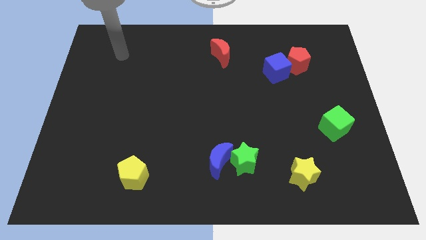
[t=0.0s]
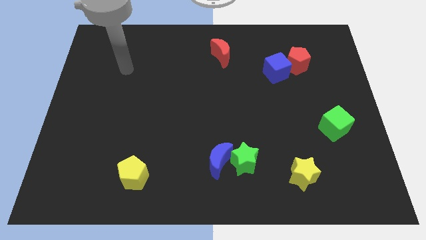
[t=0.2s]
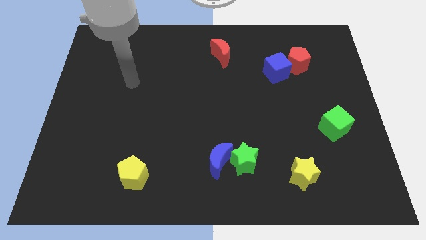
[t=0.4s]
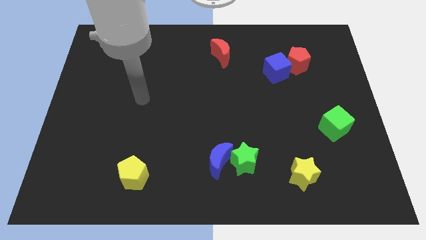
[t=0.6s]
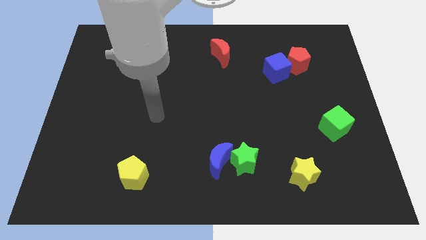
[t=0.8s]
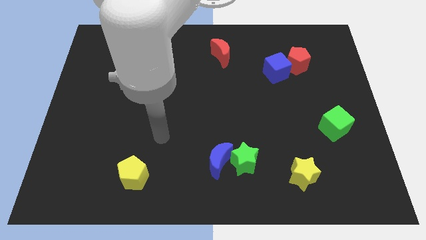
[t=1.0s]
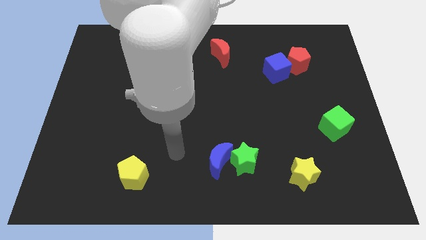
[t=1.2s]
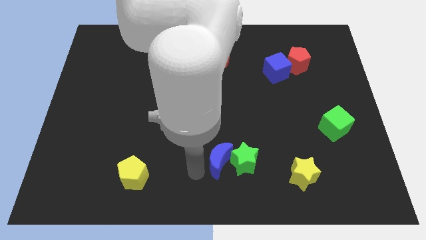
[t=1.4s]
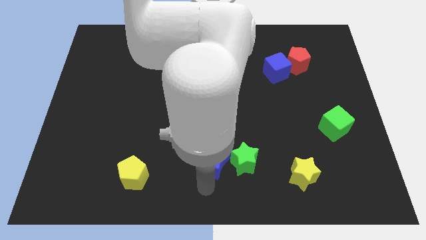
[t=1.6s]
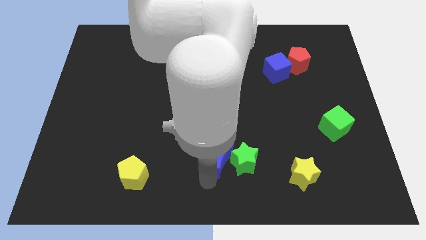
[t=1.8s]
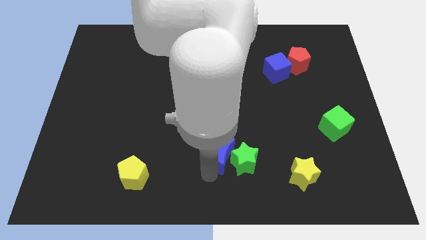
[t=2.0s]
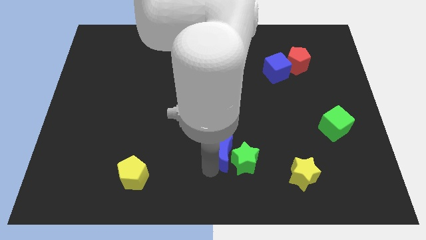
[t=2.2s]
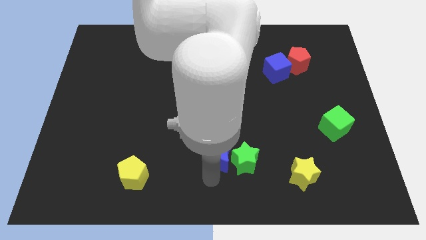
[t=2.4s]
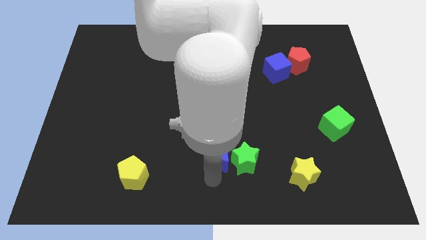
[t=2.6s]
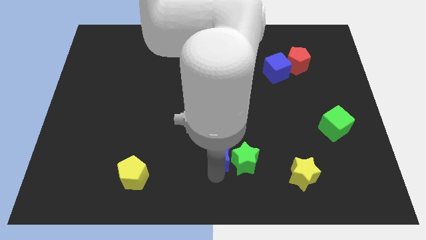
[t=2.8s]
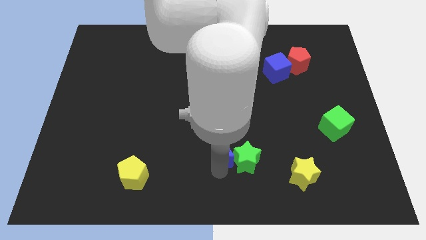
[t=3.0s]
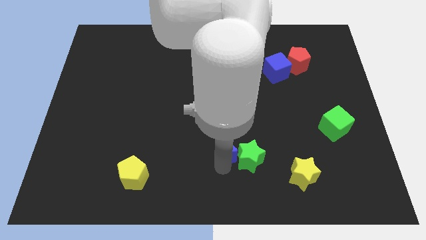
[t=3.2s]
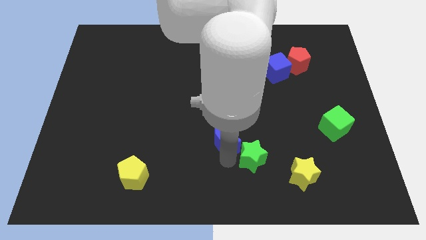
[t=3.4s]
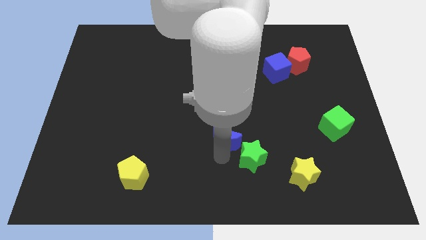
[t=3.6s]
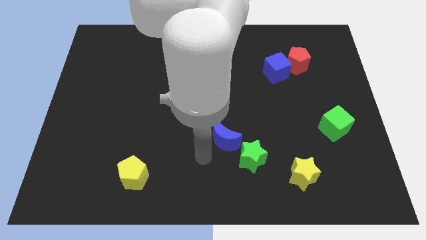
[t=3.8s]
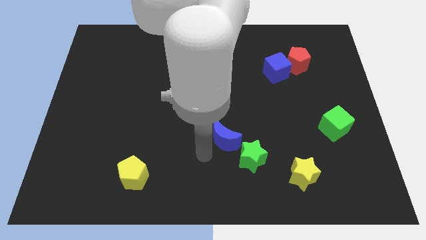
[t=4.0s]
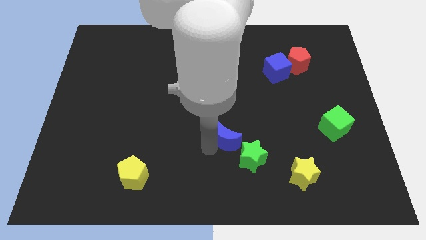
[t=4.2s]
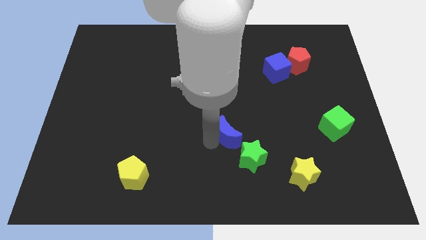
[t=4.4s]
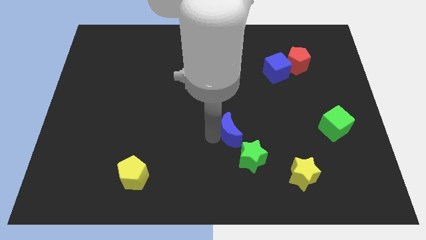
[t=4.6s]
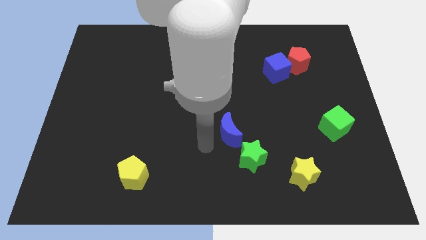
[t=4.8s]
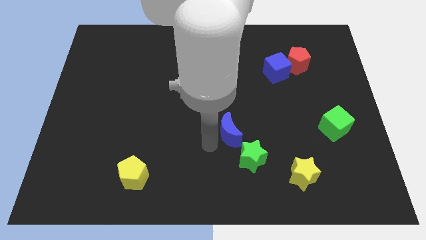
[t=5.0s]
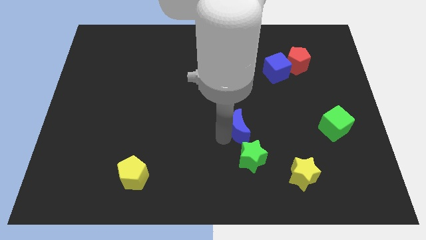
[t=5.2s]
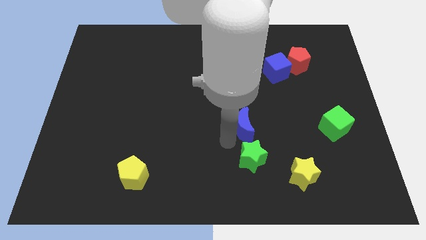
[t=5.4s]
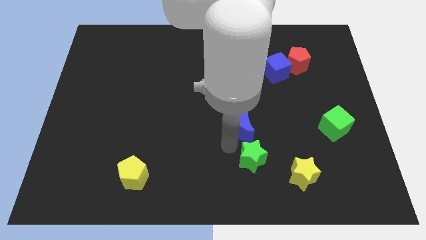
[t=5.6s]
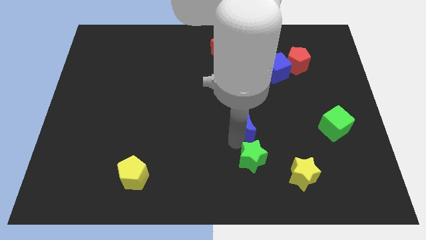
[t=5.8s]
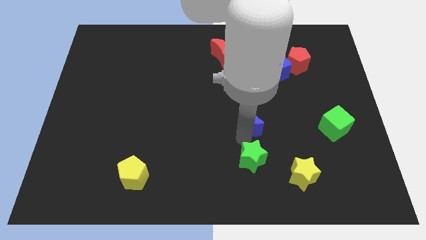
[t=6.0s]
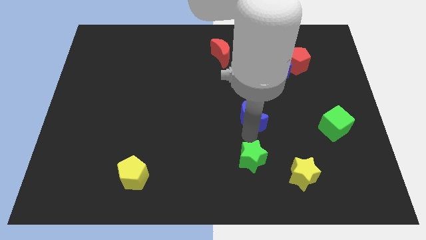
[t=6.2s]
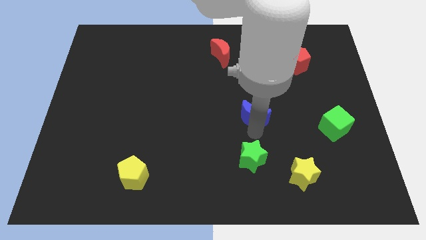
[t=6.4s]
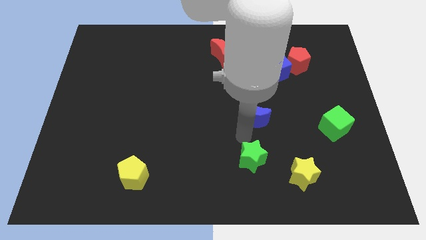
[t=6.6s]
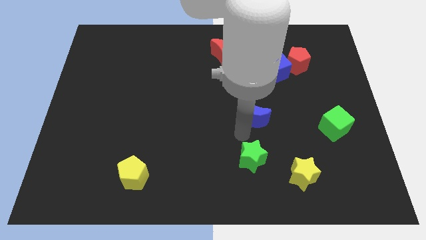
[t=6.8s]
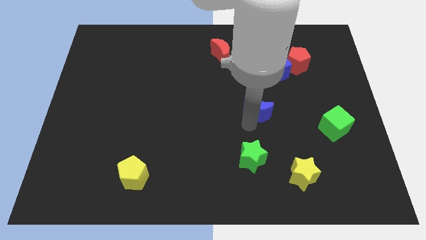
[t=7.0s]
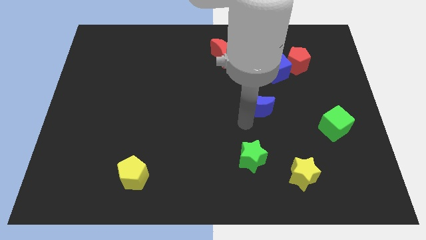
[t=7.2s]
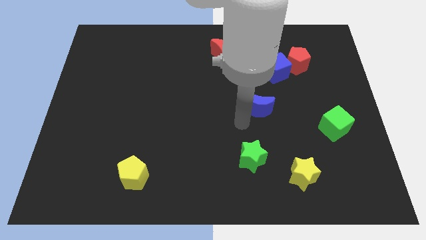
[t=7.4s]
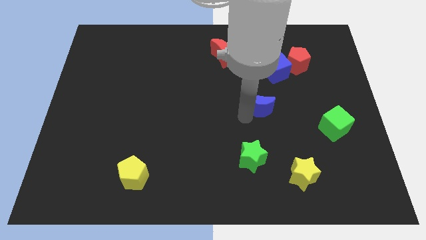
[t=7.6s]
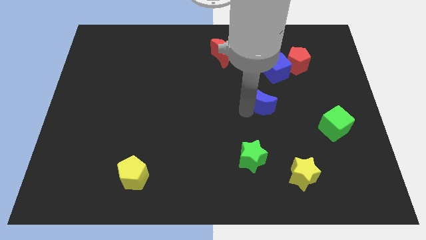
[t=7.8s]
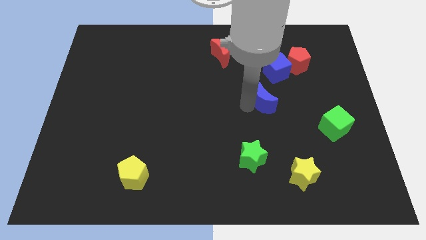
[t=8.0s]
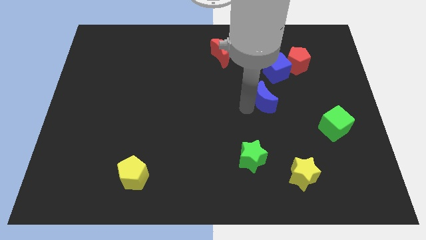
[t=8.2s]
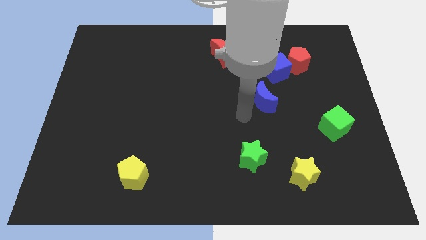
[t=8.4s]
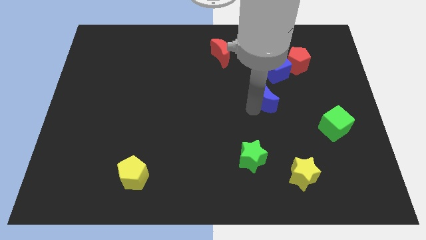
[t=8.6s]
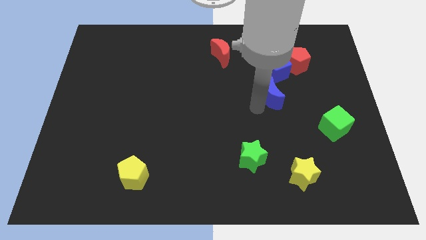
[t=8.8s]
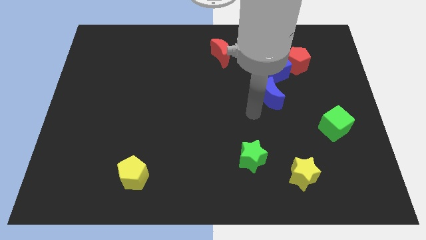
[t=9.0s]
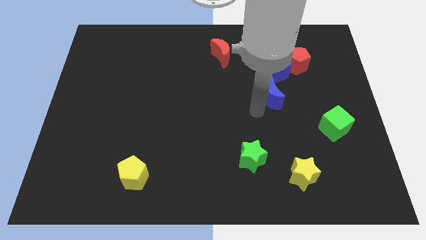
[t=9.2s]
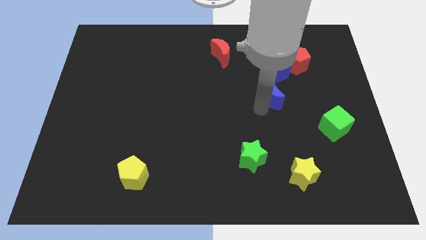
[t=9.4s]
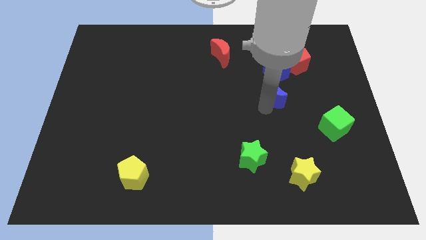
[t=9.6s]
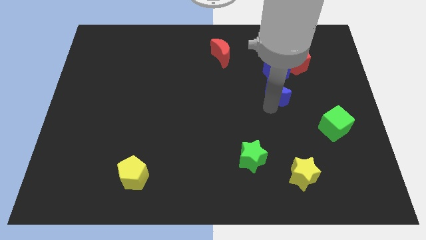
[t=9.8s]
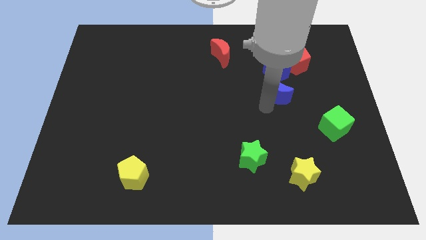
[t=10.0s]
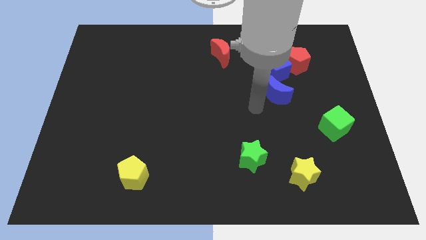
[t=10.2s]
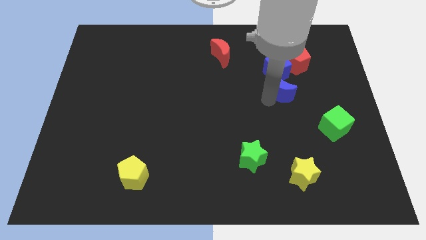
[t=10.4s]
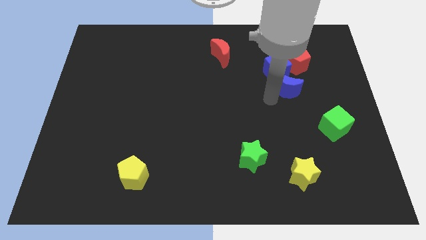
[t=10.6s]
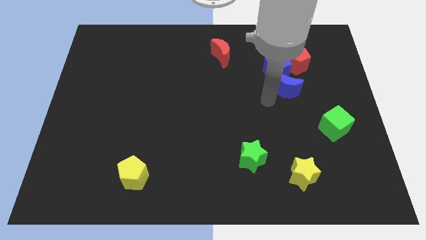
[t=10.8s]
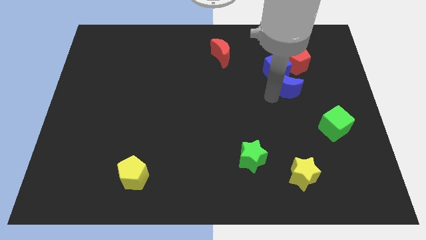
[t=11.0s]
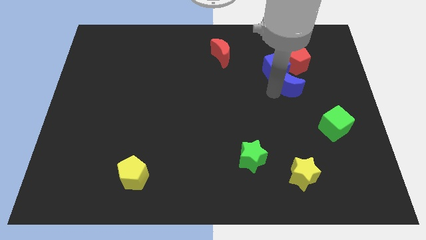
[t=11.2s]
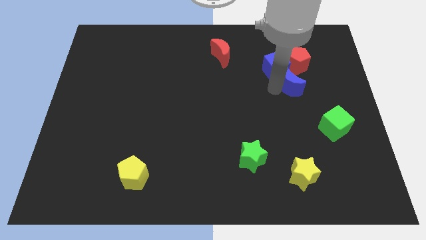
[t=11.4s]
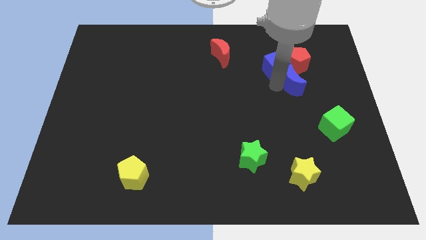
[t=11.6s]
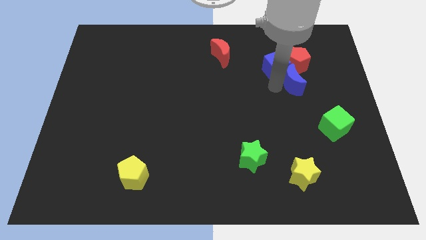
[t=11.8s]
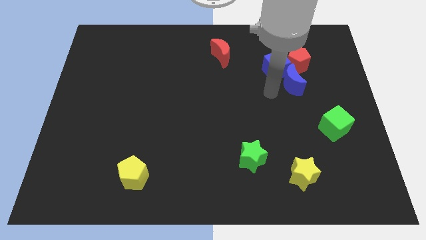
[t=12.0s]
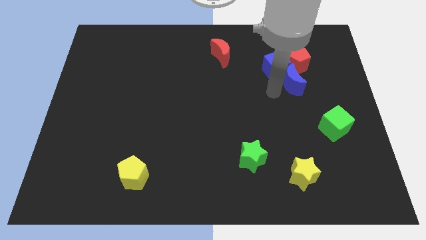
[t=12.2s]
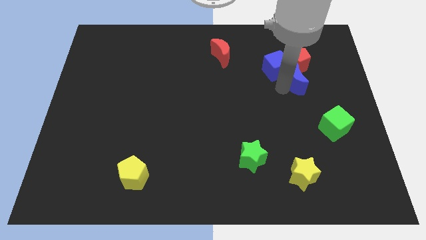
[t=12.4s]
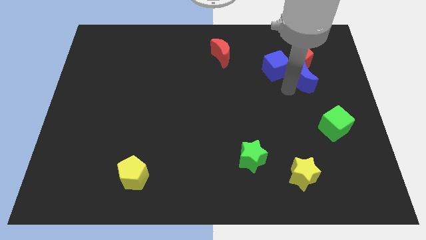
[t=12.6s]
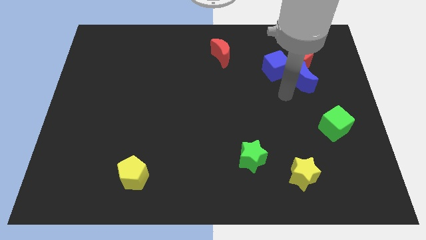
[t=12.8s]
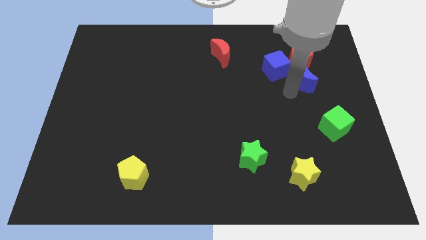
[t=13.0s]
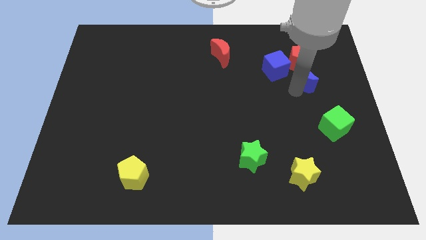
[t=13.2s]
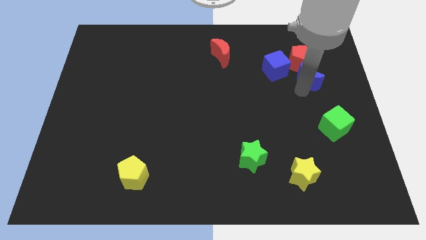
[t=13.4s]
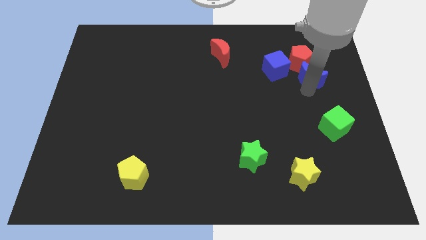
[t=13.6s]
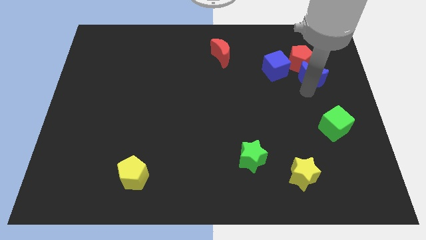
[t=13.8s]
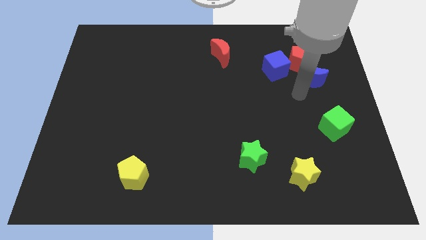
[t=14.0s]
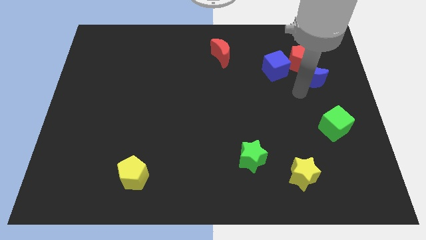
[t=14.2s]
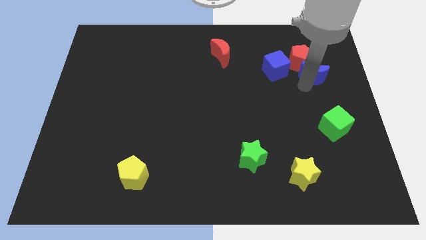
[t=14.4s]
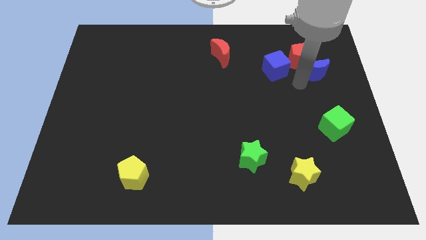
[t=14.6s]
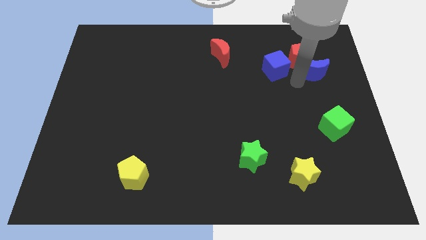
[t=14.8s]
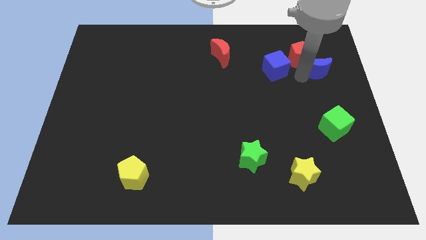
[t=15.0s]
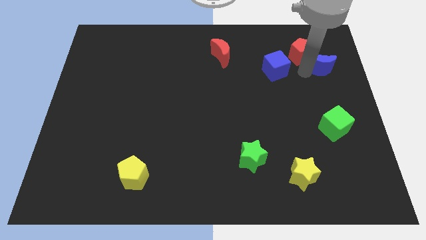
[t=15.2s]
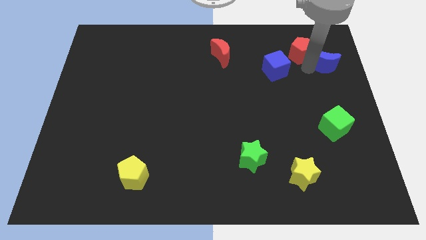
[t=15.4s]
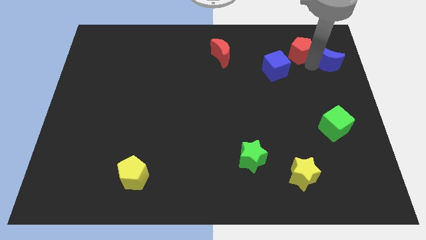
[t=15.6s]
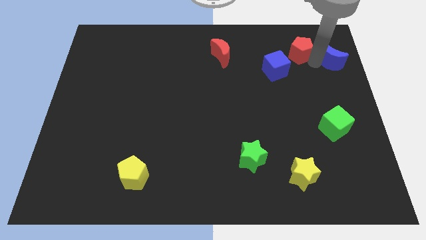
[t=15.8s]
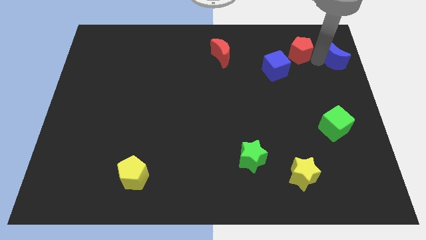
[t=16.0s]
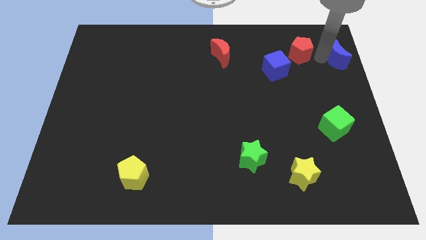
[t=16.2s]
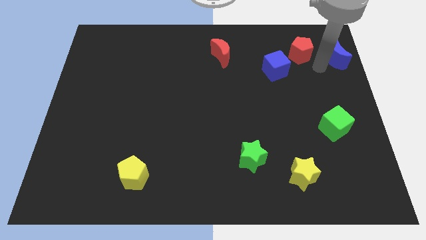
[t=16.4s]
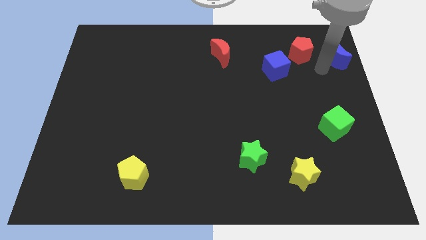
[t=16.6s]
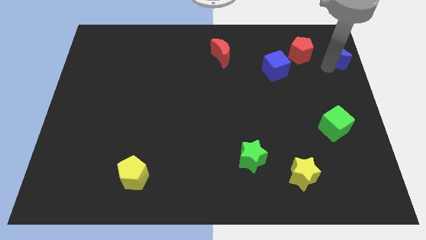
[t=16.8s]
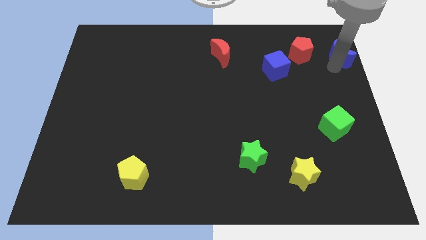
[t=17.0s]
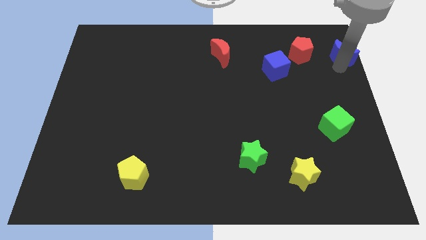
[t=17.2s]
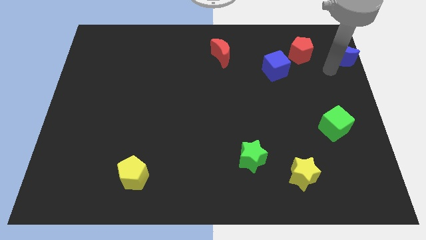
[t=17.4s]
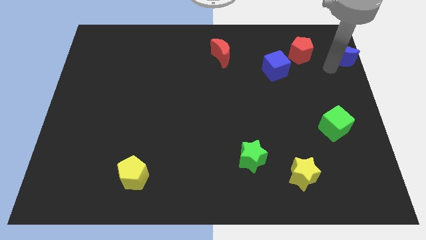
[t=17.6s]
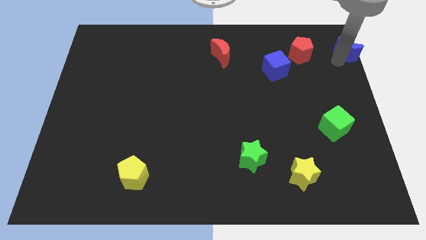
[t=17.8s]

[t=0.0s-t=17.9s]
put the blue moon to the top right corner
